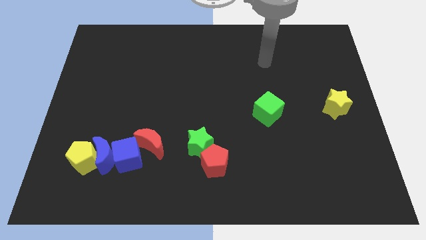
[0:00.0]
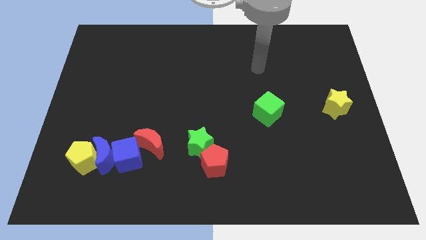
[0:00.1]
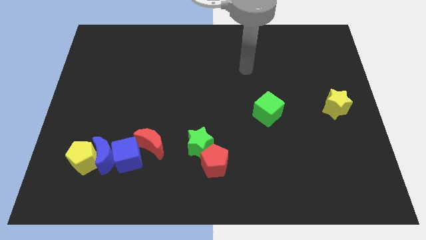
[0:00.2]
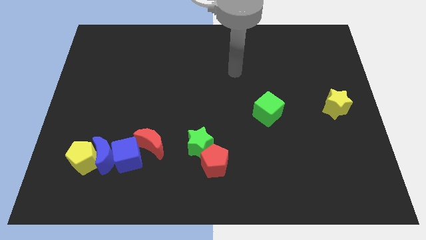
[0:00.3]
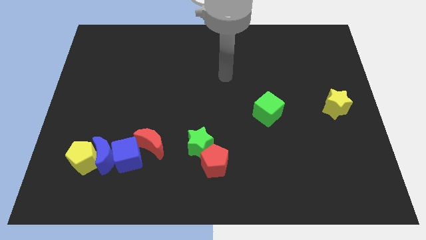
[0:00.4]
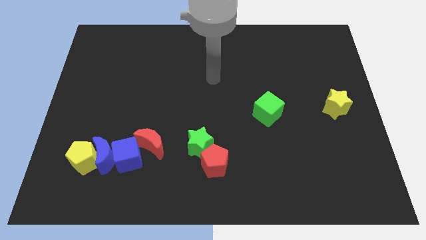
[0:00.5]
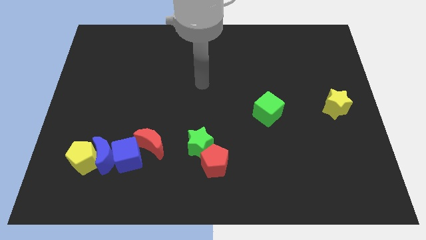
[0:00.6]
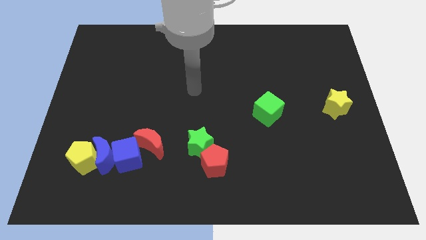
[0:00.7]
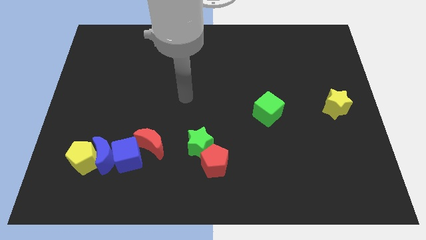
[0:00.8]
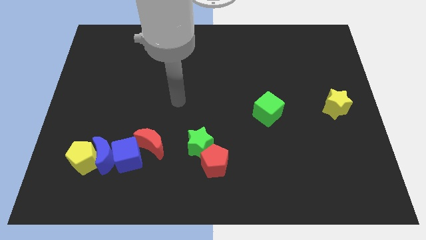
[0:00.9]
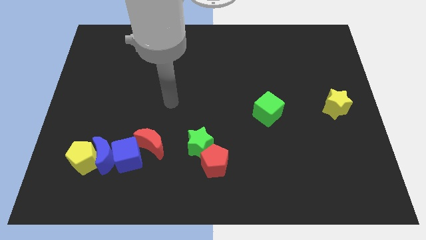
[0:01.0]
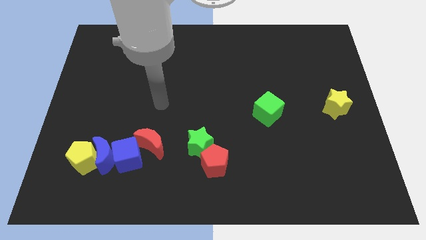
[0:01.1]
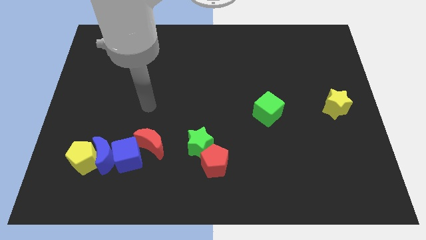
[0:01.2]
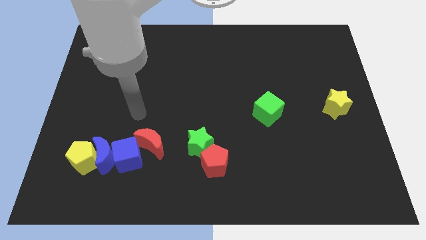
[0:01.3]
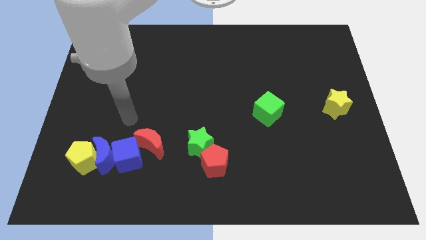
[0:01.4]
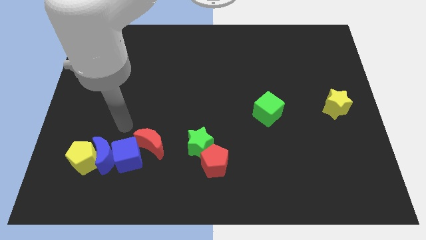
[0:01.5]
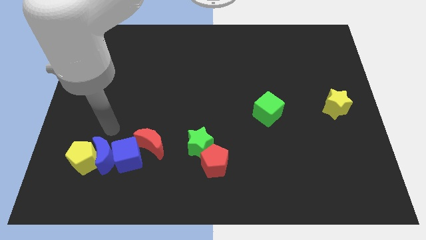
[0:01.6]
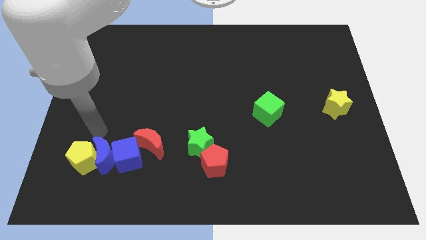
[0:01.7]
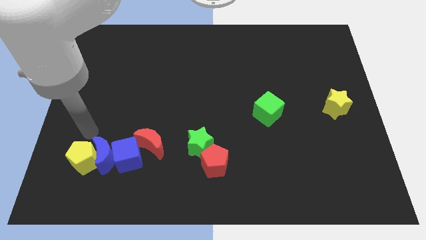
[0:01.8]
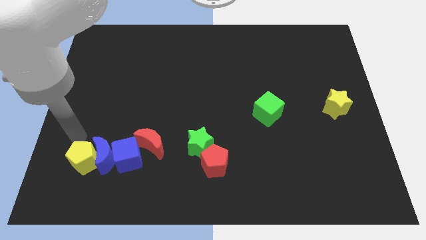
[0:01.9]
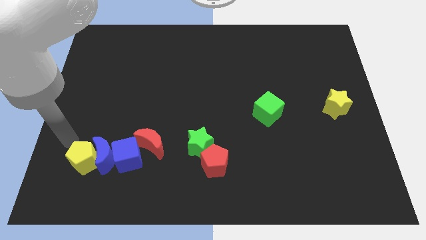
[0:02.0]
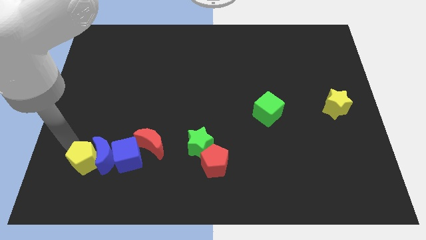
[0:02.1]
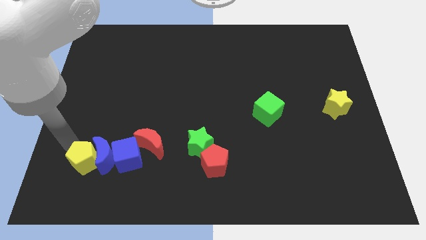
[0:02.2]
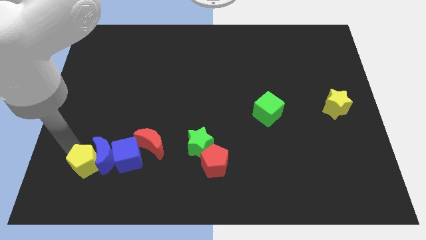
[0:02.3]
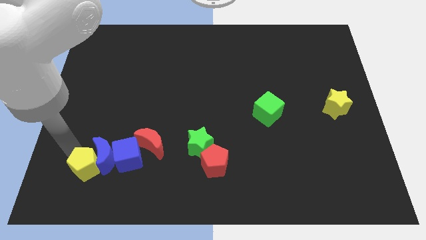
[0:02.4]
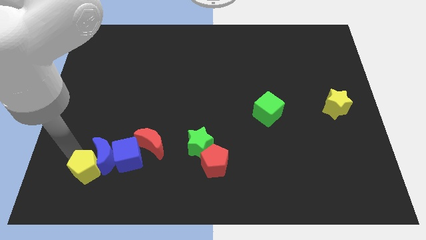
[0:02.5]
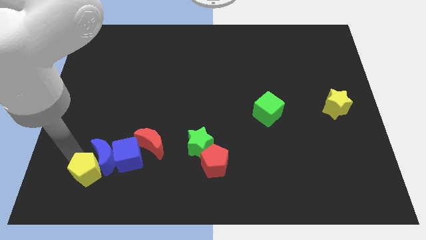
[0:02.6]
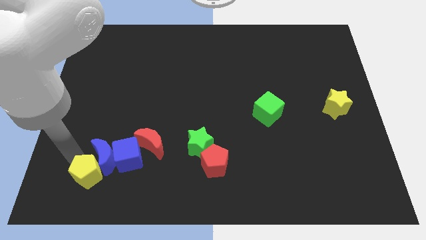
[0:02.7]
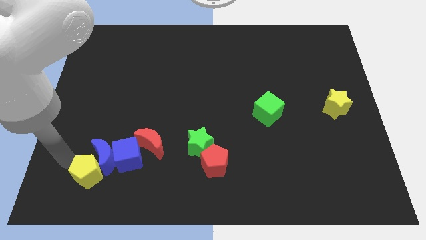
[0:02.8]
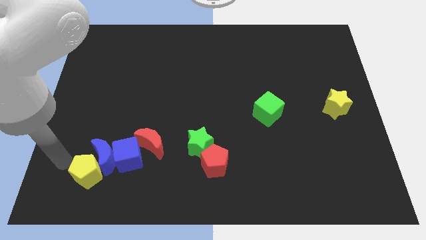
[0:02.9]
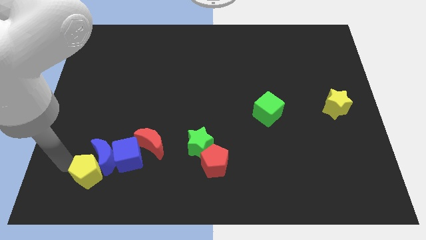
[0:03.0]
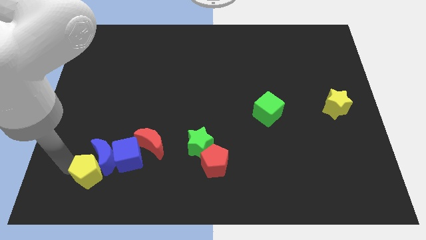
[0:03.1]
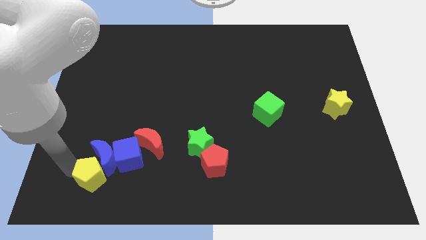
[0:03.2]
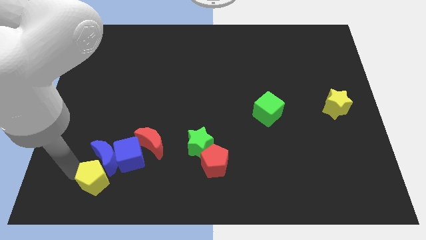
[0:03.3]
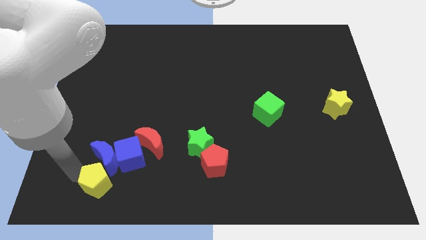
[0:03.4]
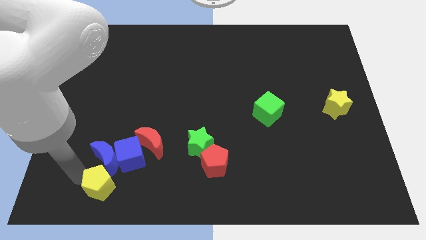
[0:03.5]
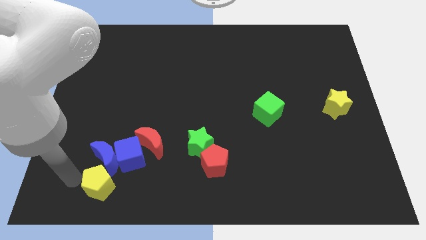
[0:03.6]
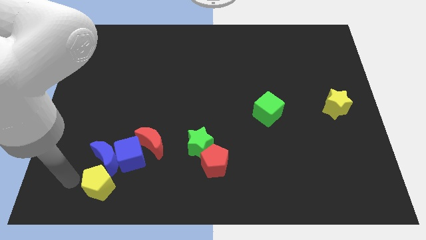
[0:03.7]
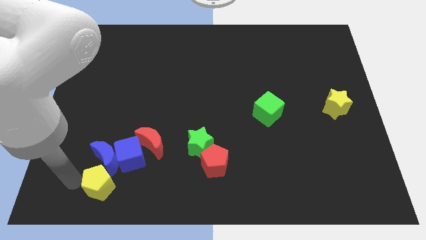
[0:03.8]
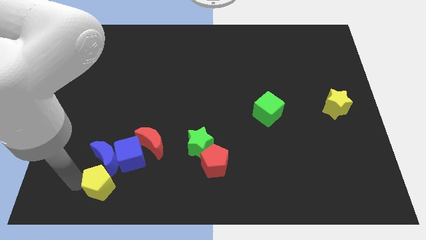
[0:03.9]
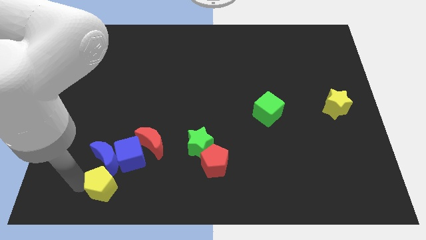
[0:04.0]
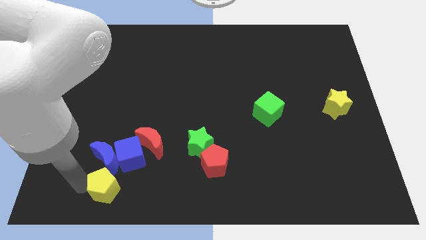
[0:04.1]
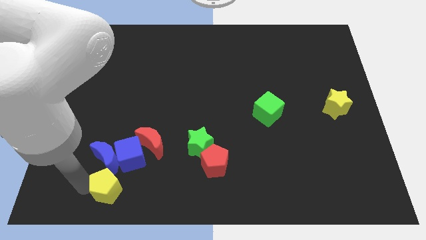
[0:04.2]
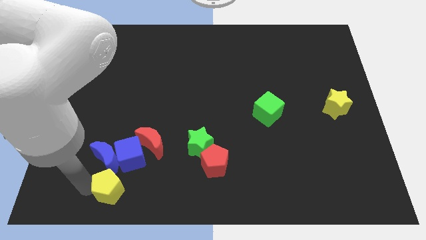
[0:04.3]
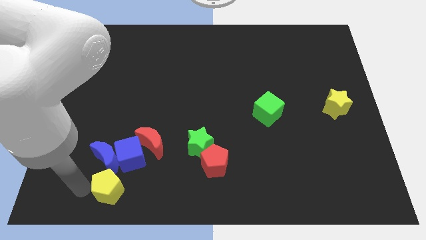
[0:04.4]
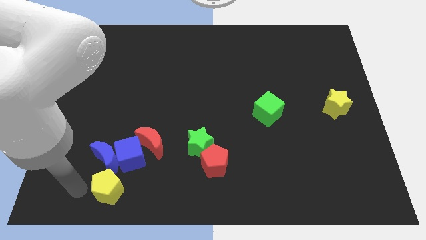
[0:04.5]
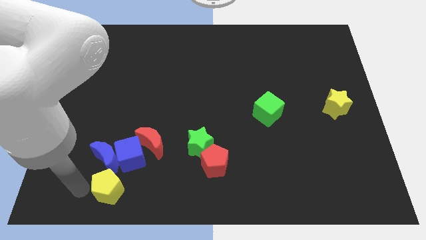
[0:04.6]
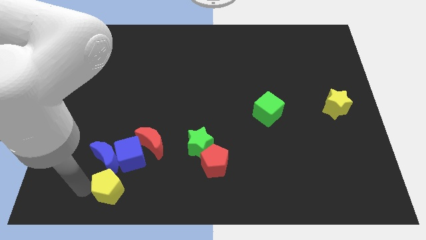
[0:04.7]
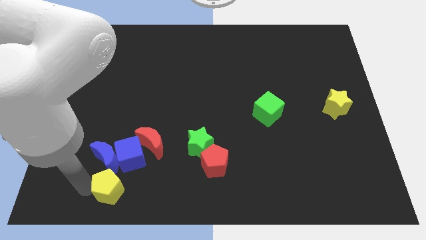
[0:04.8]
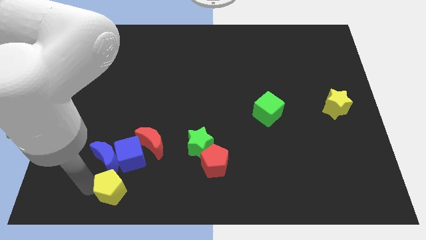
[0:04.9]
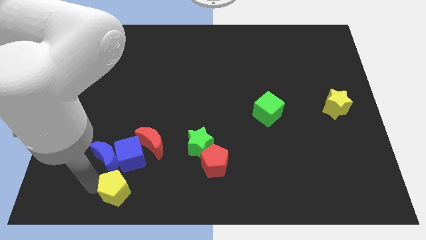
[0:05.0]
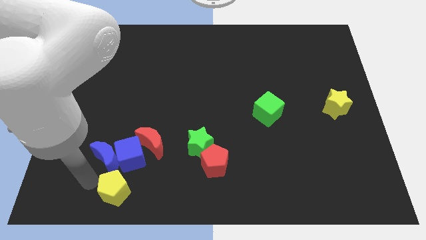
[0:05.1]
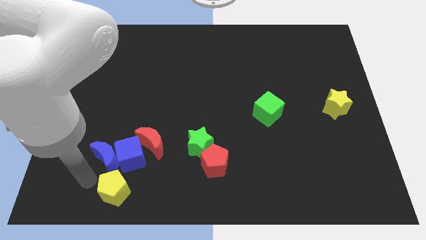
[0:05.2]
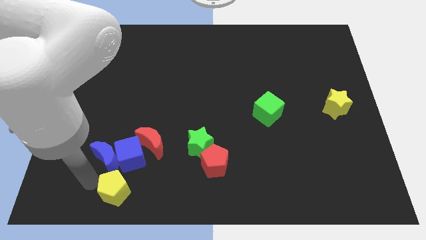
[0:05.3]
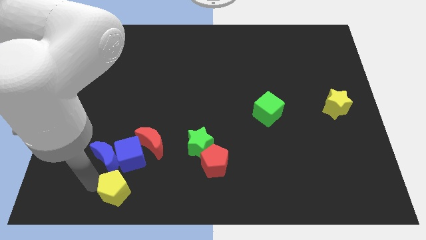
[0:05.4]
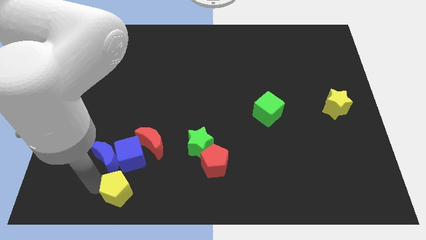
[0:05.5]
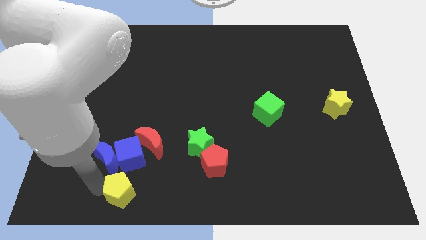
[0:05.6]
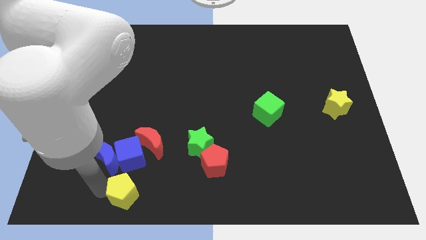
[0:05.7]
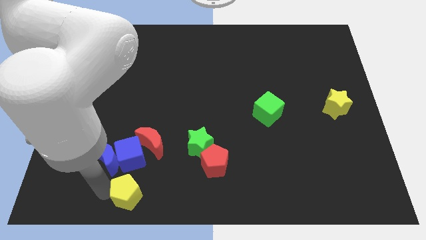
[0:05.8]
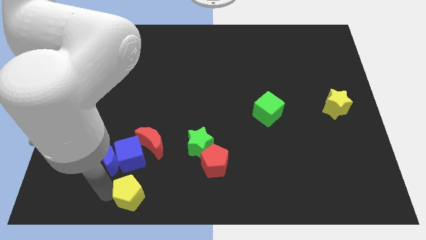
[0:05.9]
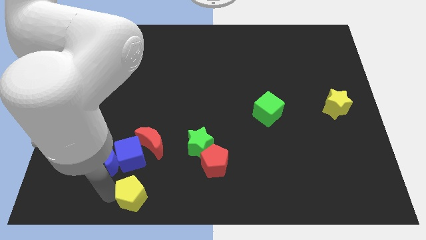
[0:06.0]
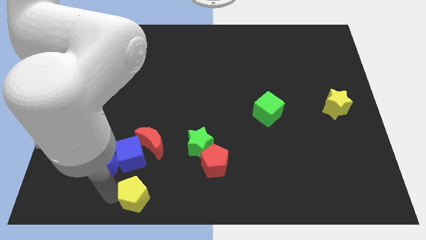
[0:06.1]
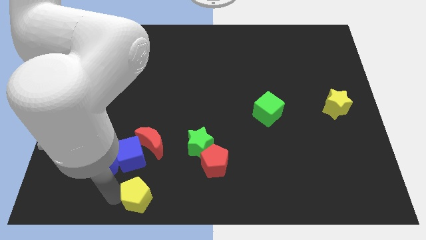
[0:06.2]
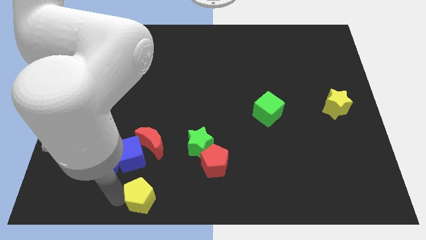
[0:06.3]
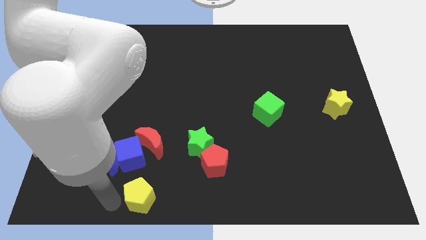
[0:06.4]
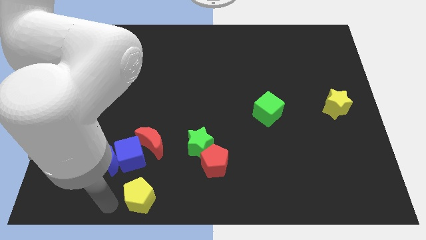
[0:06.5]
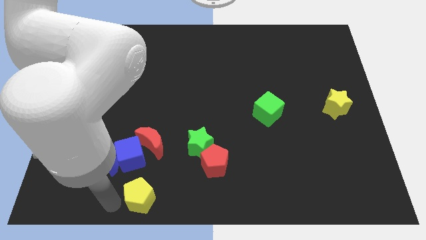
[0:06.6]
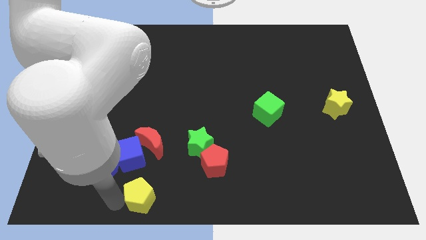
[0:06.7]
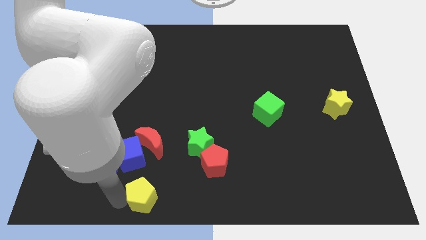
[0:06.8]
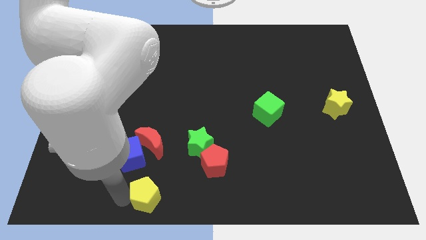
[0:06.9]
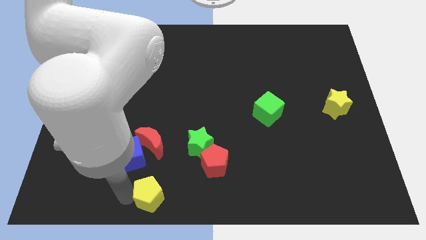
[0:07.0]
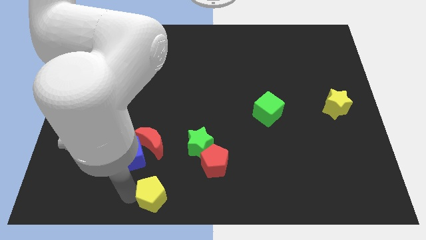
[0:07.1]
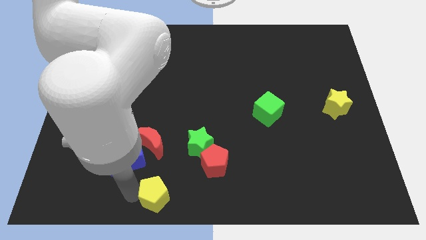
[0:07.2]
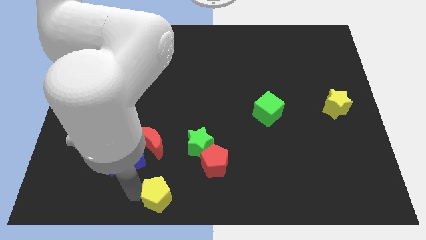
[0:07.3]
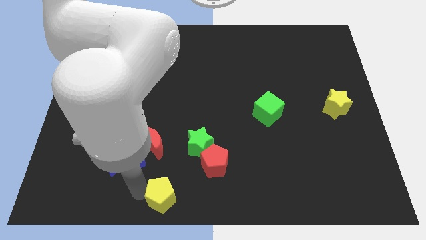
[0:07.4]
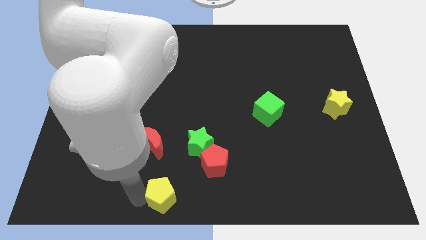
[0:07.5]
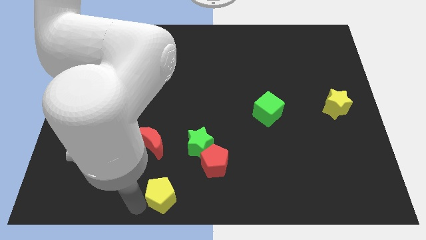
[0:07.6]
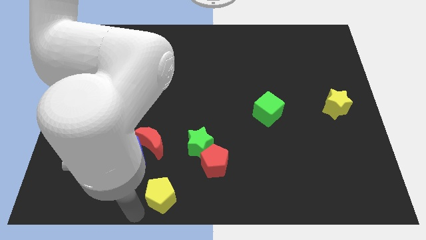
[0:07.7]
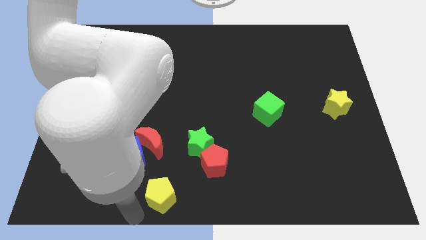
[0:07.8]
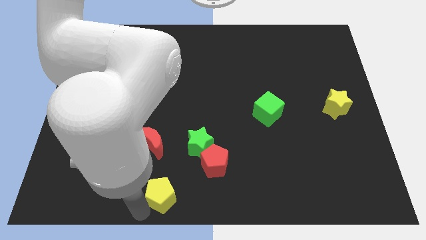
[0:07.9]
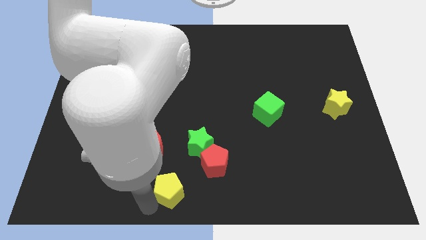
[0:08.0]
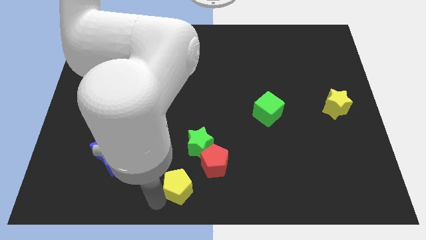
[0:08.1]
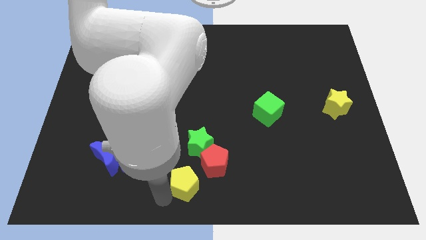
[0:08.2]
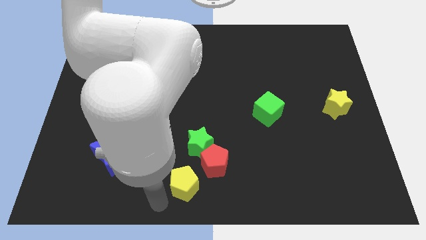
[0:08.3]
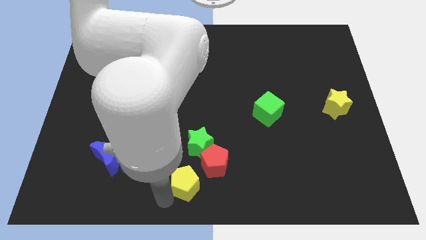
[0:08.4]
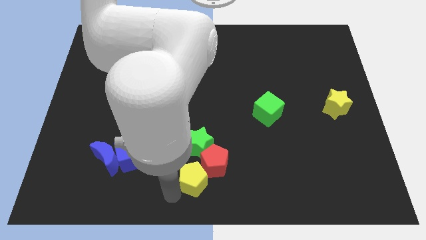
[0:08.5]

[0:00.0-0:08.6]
slide the yellow pentagon next to the red pentagon
